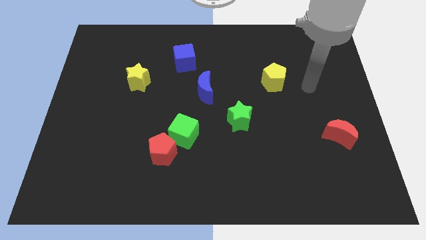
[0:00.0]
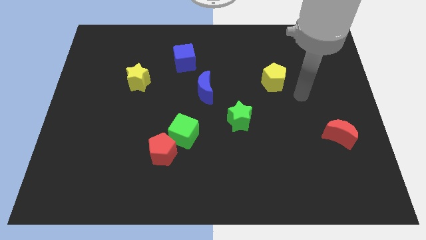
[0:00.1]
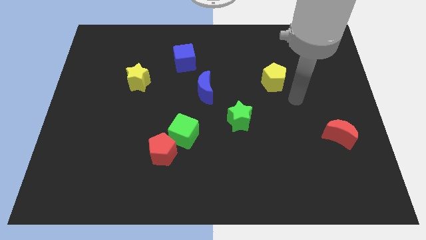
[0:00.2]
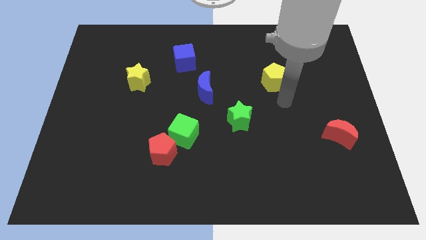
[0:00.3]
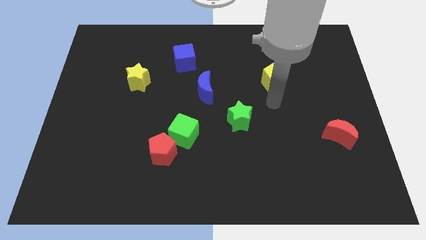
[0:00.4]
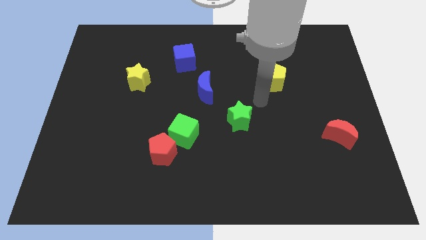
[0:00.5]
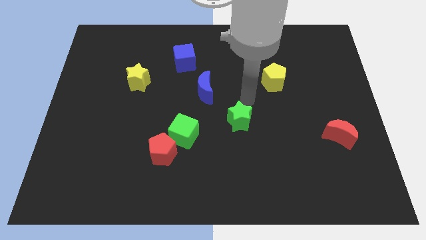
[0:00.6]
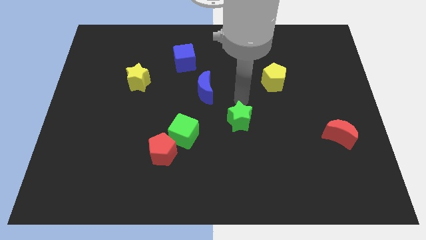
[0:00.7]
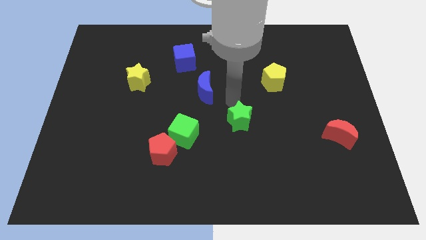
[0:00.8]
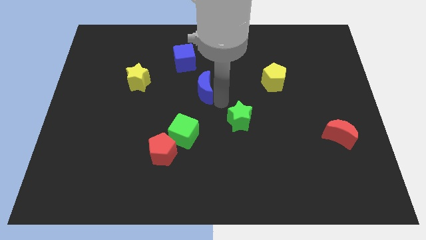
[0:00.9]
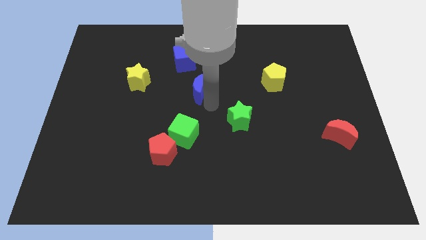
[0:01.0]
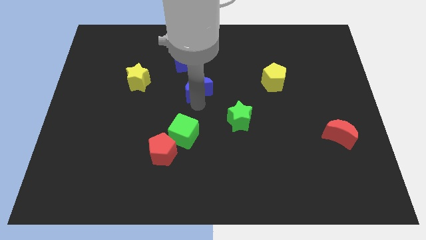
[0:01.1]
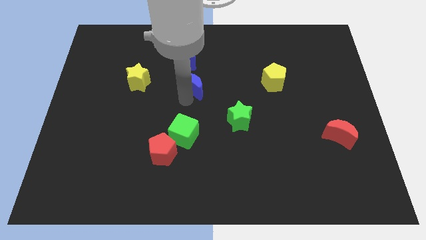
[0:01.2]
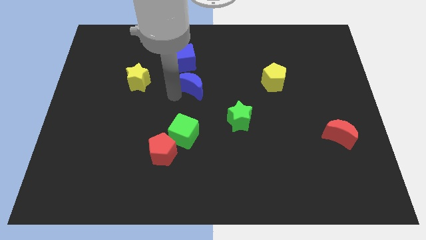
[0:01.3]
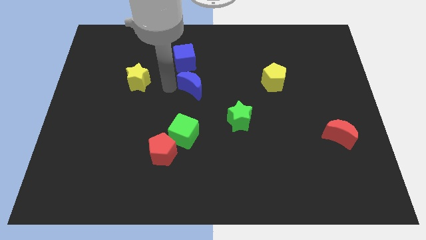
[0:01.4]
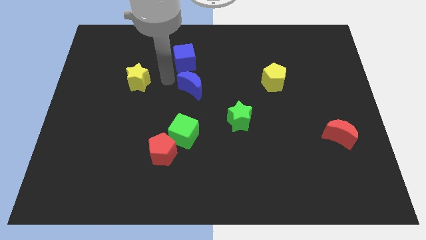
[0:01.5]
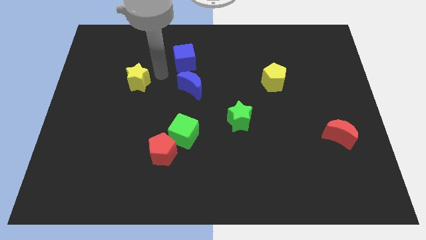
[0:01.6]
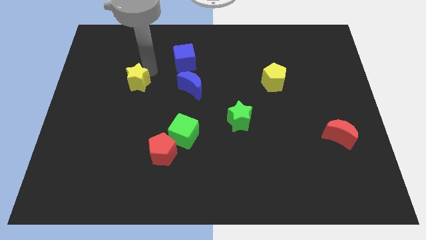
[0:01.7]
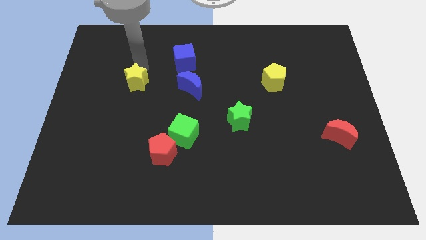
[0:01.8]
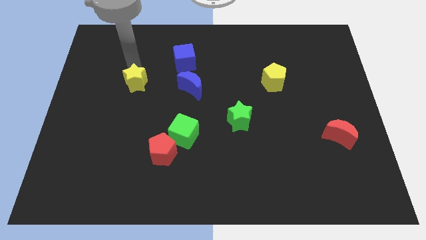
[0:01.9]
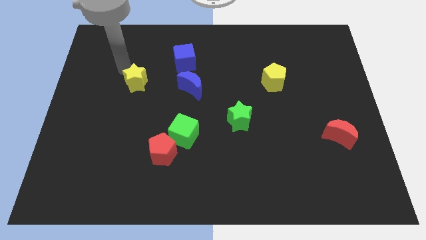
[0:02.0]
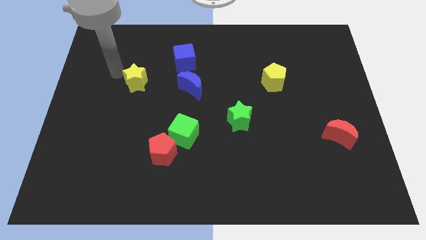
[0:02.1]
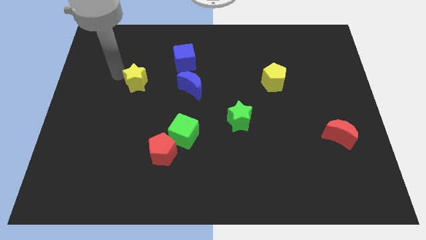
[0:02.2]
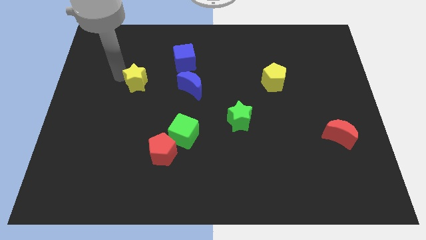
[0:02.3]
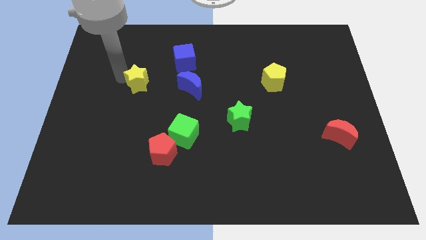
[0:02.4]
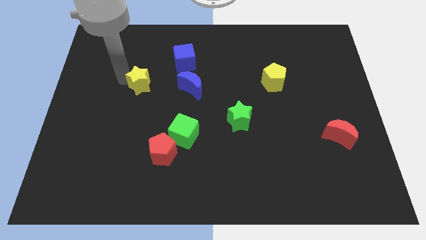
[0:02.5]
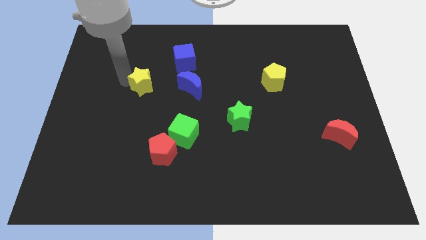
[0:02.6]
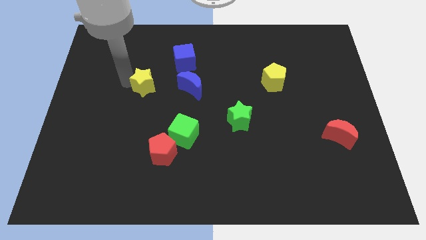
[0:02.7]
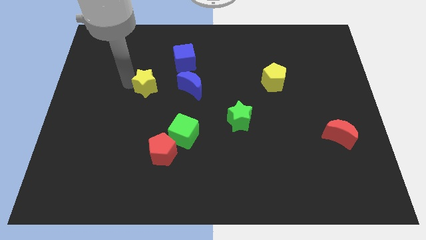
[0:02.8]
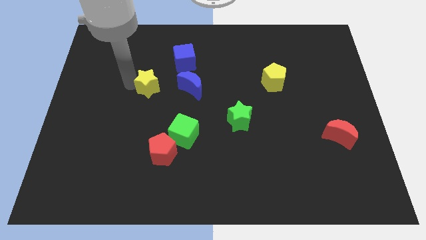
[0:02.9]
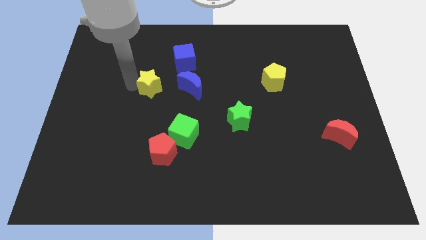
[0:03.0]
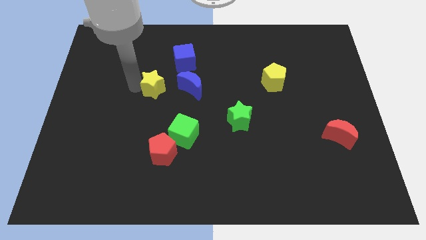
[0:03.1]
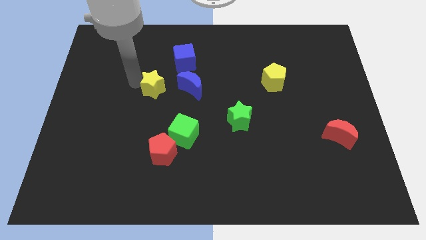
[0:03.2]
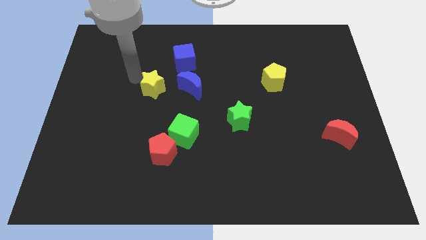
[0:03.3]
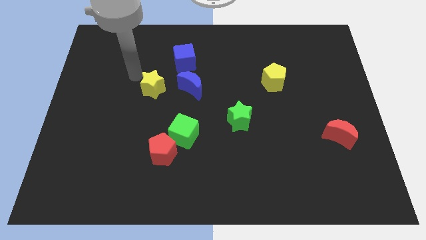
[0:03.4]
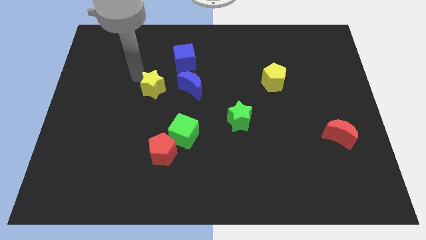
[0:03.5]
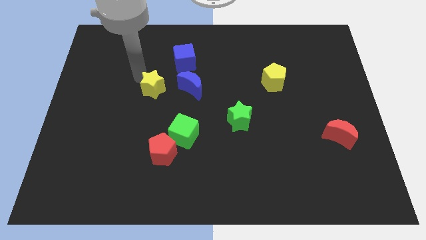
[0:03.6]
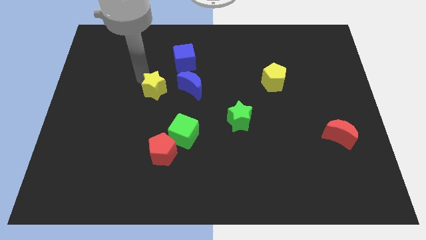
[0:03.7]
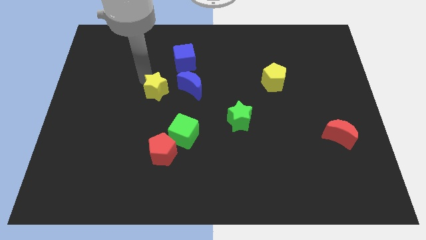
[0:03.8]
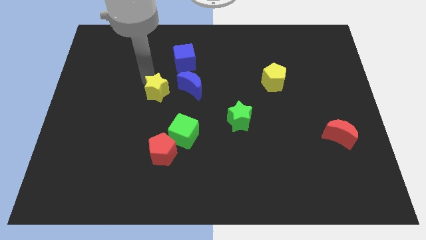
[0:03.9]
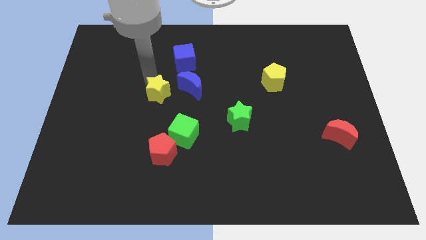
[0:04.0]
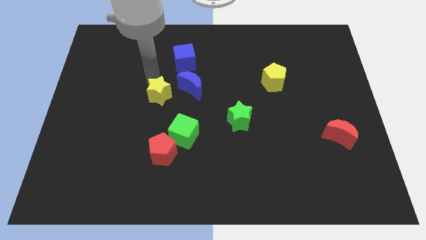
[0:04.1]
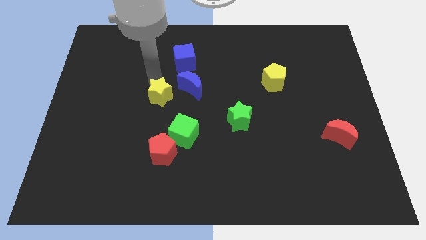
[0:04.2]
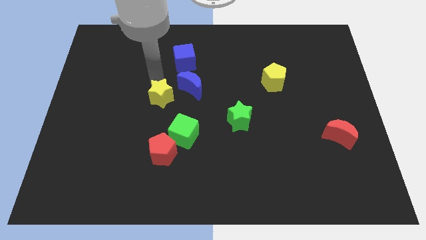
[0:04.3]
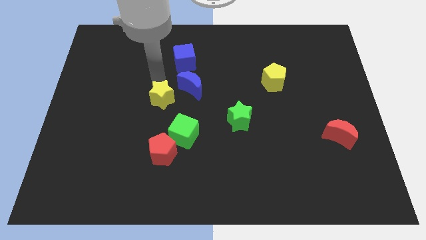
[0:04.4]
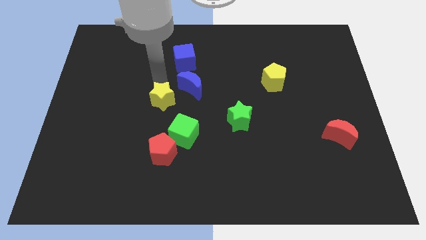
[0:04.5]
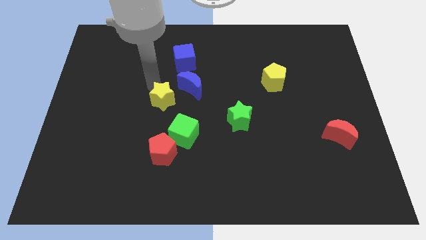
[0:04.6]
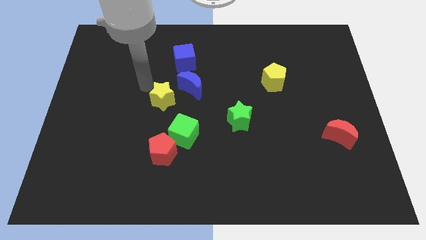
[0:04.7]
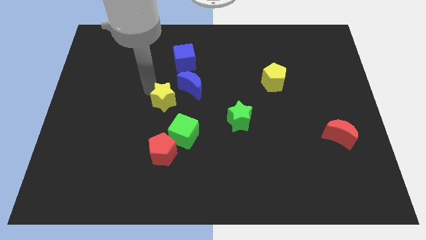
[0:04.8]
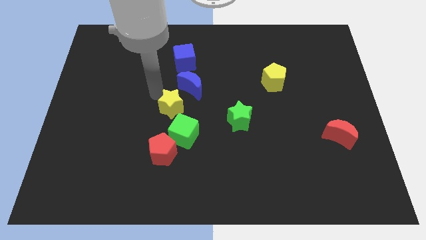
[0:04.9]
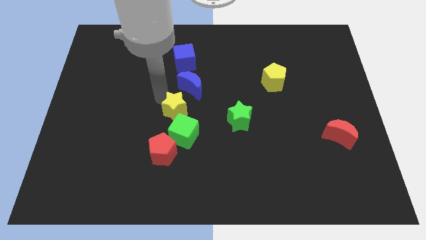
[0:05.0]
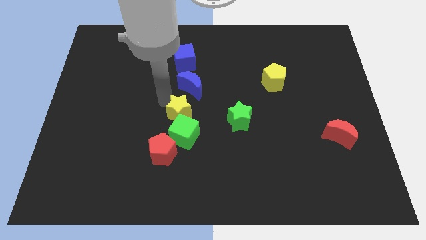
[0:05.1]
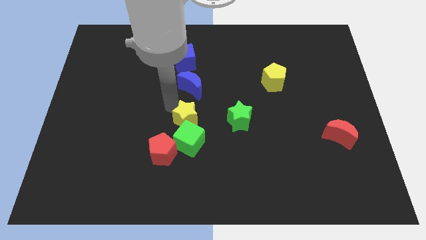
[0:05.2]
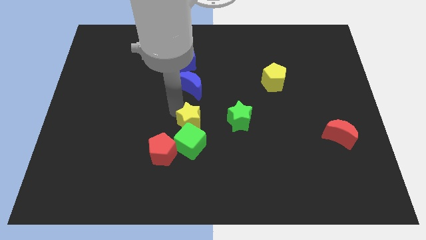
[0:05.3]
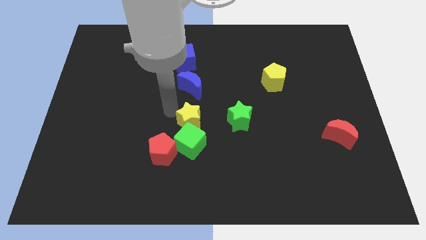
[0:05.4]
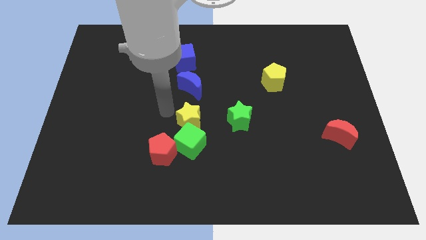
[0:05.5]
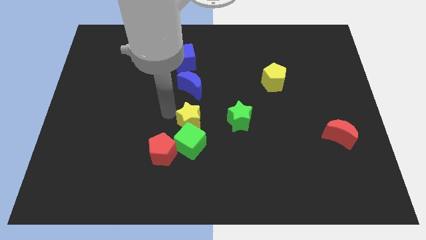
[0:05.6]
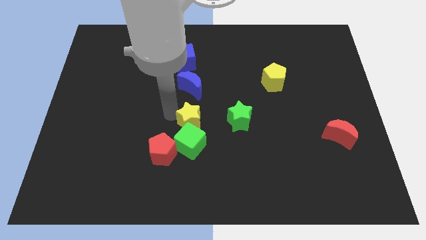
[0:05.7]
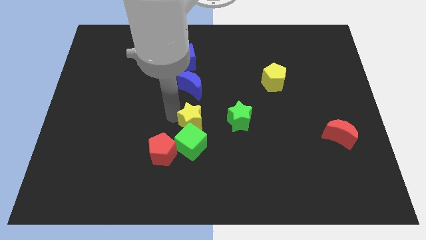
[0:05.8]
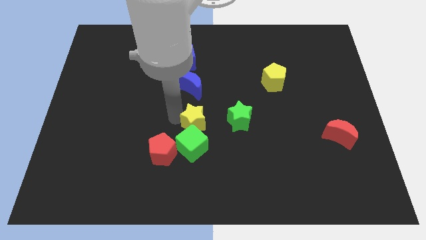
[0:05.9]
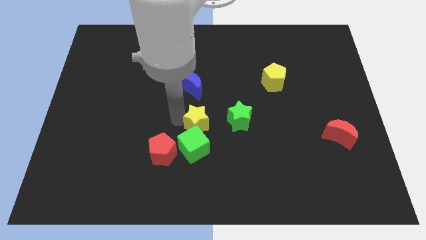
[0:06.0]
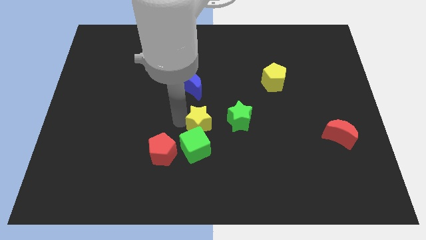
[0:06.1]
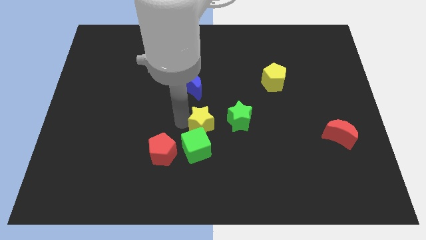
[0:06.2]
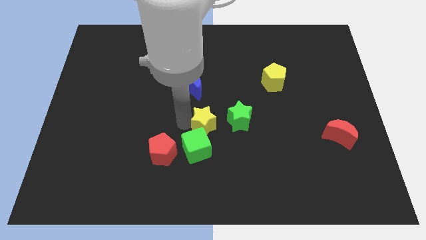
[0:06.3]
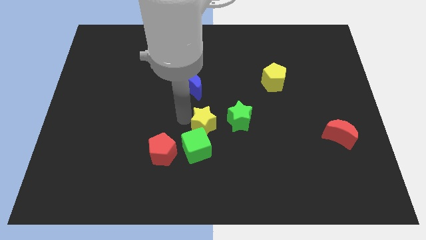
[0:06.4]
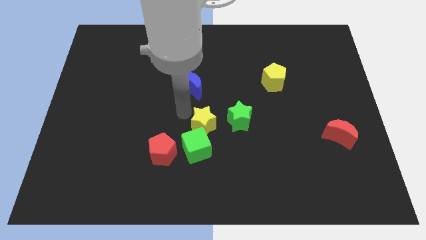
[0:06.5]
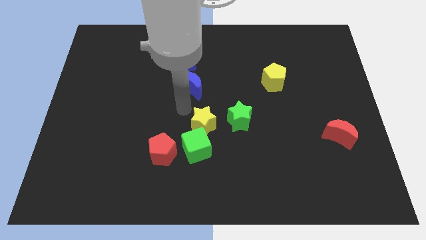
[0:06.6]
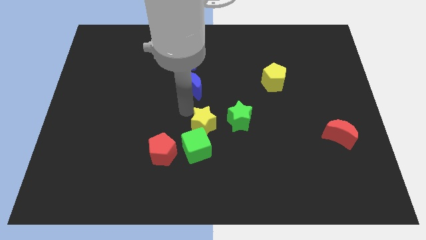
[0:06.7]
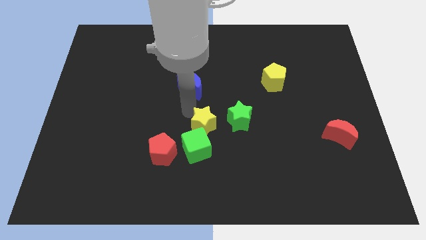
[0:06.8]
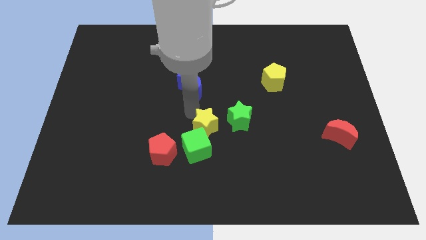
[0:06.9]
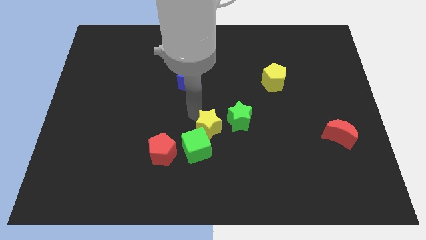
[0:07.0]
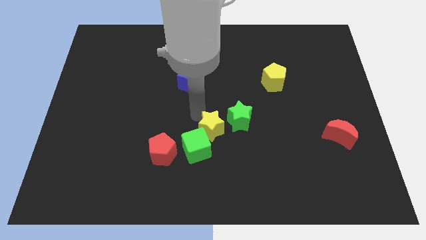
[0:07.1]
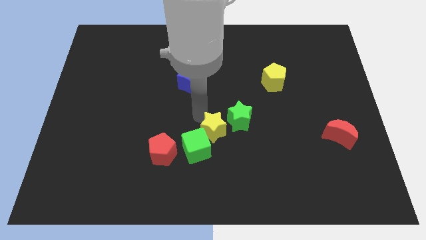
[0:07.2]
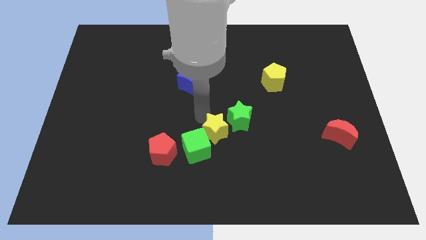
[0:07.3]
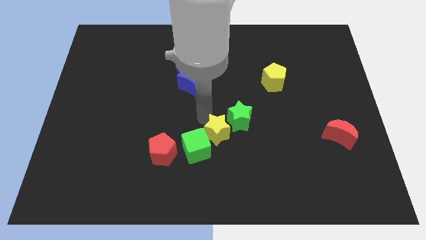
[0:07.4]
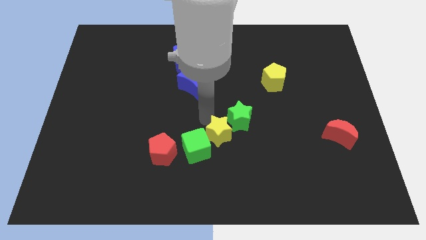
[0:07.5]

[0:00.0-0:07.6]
slide the yellow star below the green star
